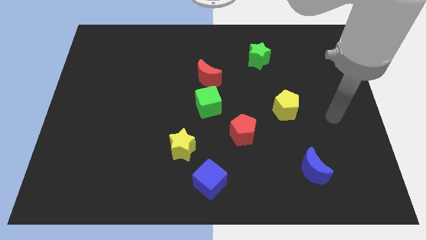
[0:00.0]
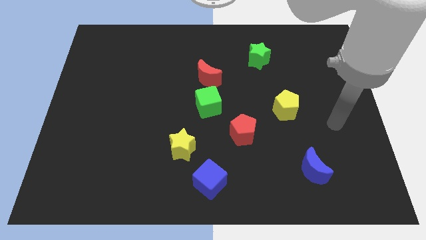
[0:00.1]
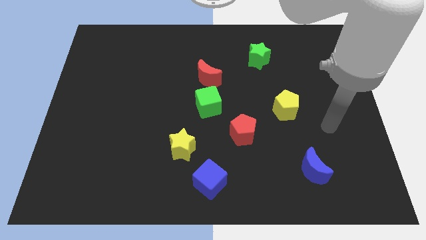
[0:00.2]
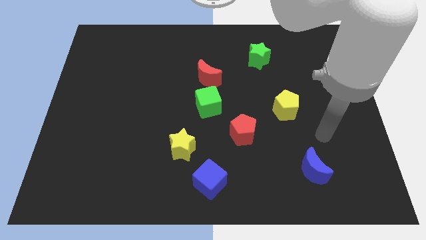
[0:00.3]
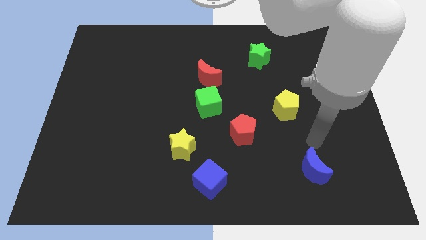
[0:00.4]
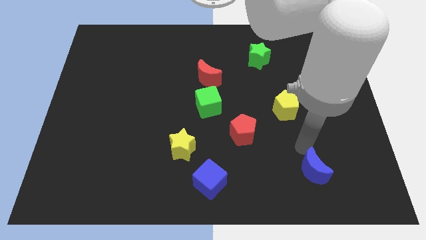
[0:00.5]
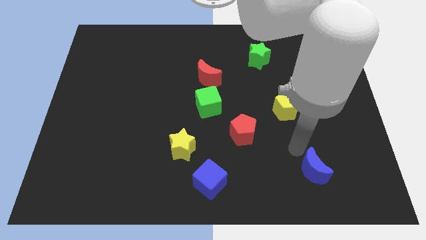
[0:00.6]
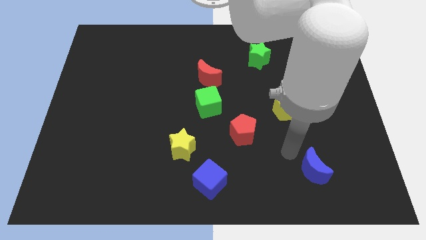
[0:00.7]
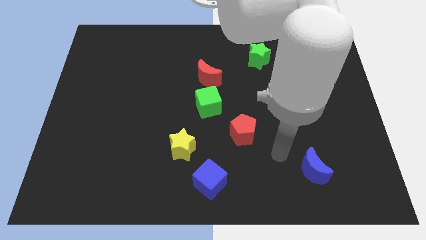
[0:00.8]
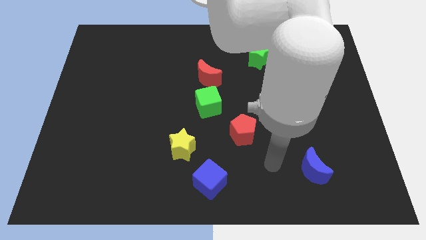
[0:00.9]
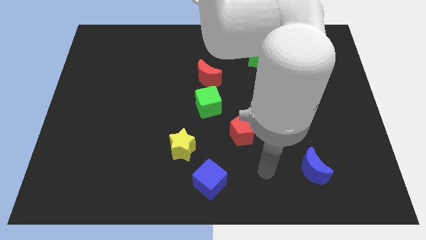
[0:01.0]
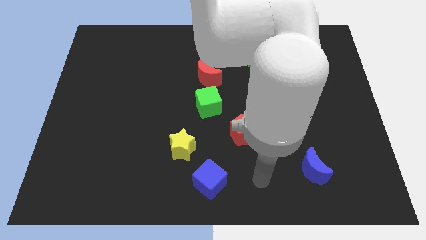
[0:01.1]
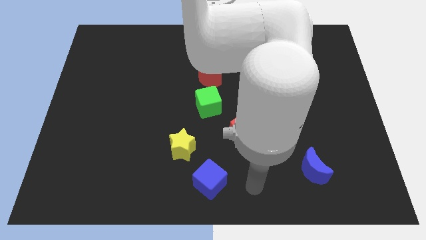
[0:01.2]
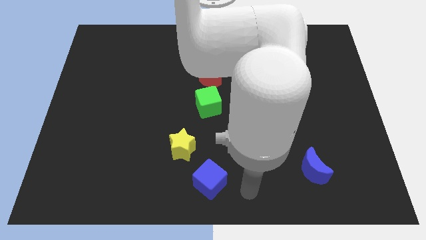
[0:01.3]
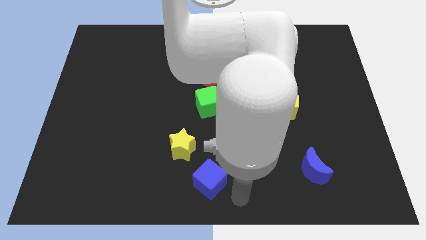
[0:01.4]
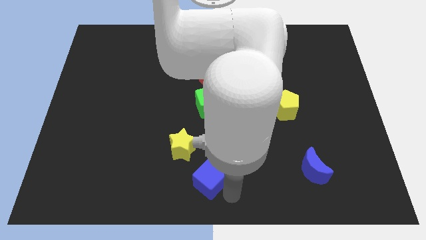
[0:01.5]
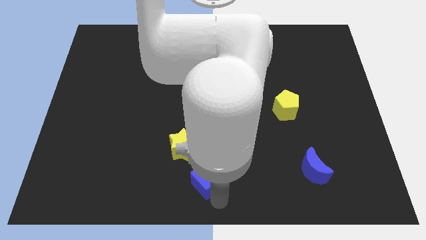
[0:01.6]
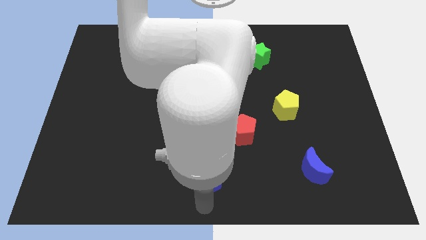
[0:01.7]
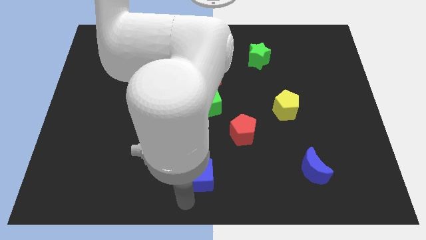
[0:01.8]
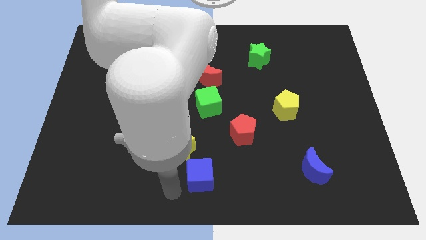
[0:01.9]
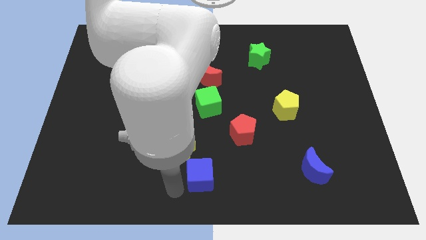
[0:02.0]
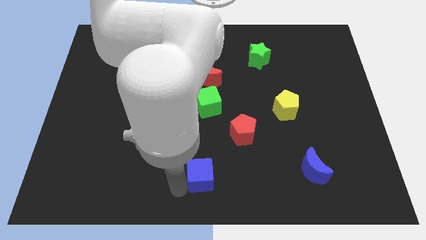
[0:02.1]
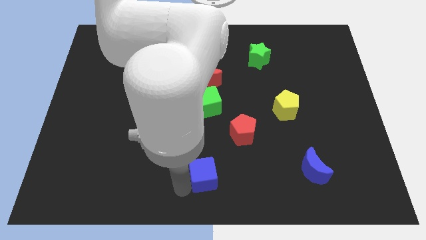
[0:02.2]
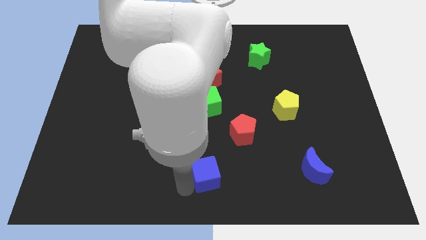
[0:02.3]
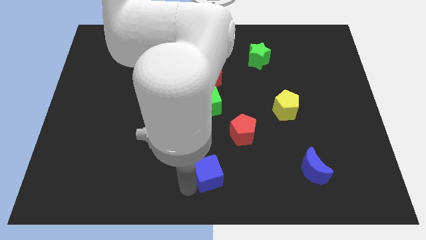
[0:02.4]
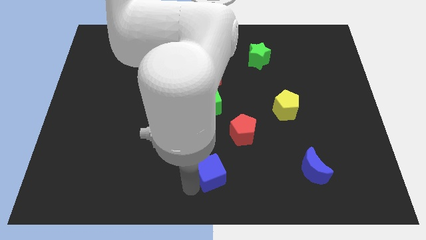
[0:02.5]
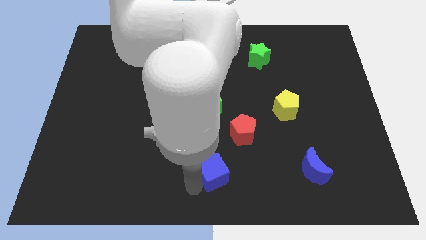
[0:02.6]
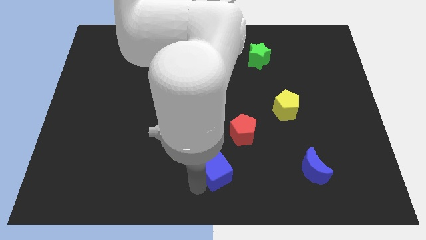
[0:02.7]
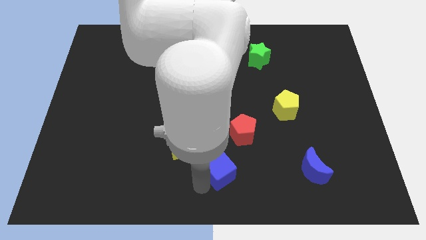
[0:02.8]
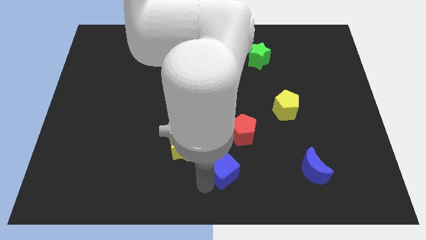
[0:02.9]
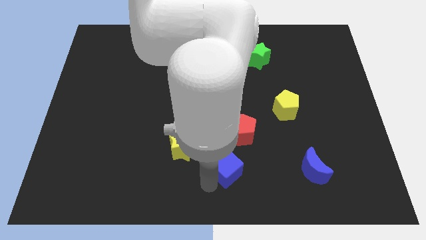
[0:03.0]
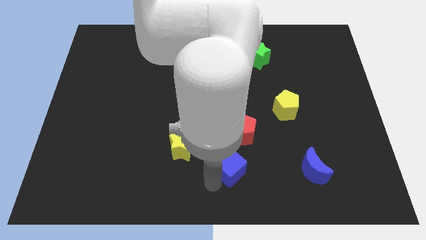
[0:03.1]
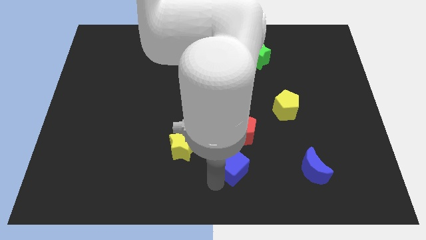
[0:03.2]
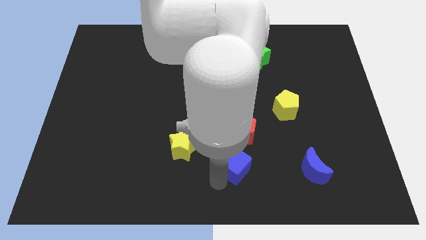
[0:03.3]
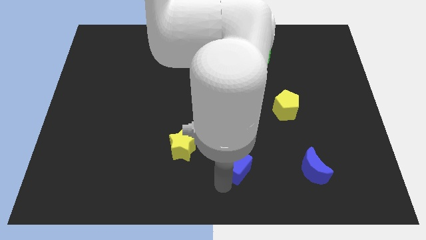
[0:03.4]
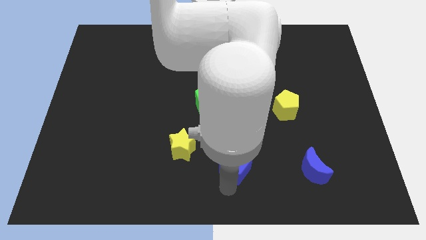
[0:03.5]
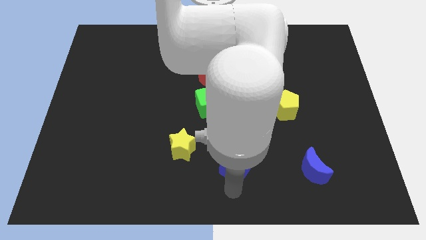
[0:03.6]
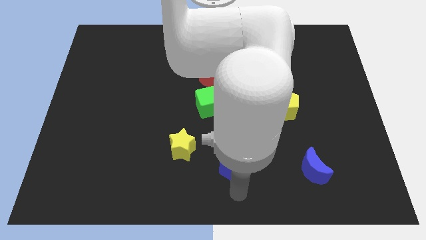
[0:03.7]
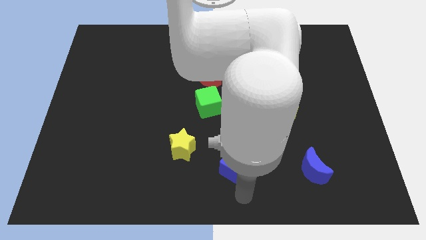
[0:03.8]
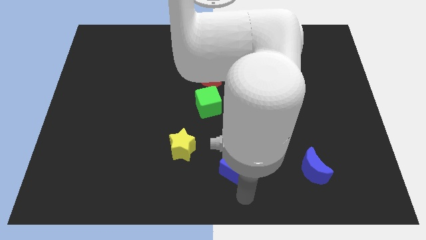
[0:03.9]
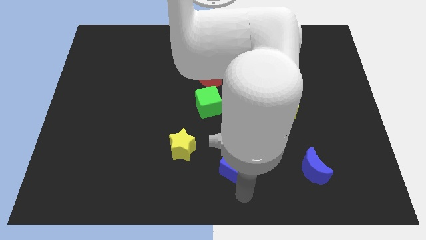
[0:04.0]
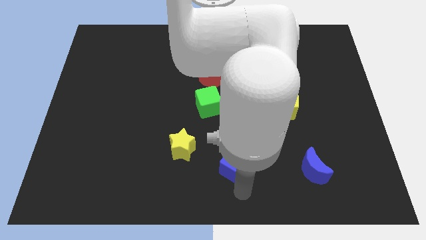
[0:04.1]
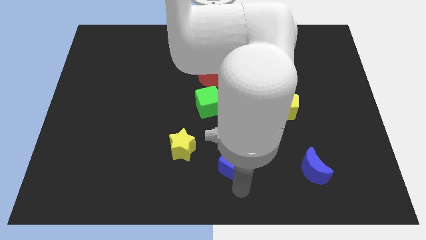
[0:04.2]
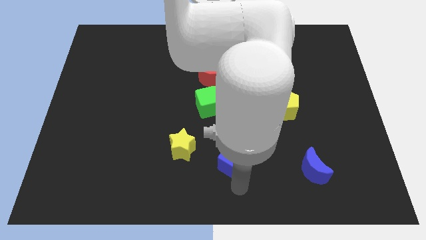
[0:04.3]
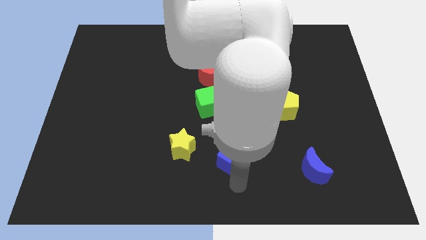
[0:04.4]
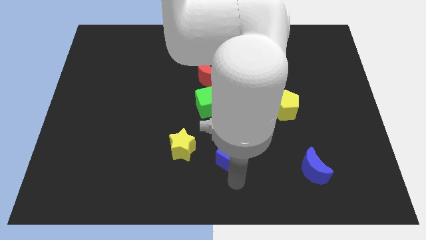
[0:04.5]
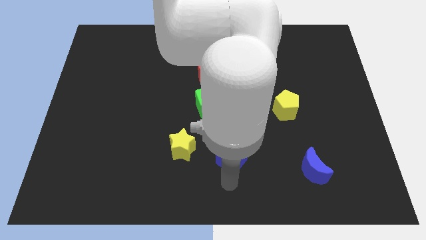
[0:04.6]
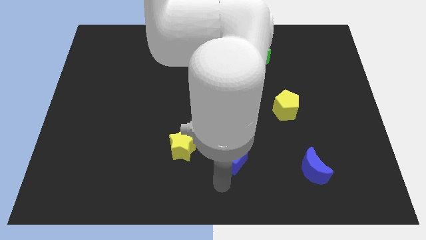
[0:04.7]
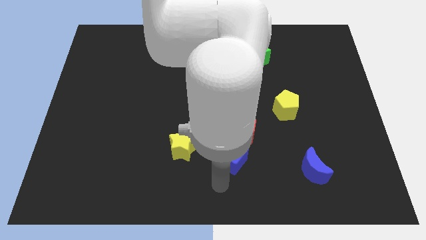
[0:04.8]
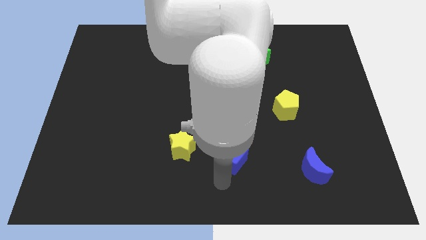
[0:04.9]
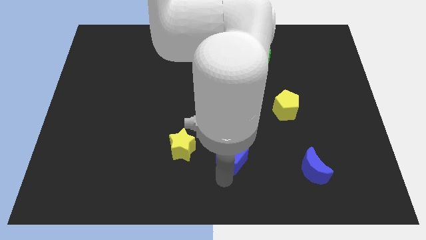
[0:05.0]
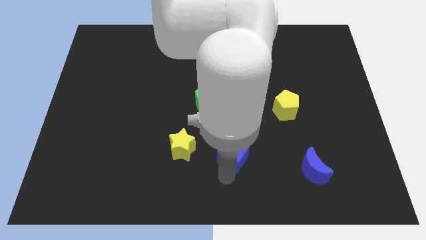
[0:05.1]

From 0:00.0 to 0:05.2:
push the blue cube close to the red pentagon

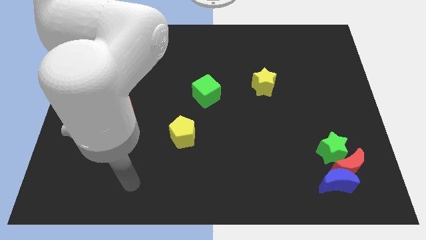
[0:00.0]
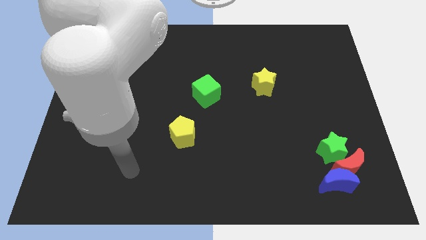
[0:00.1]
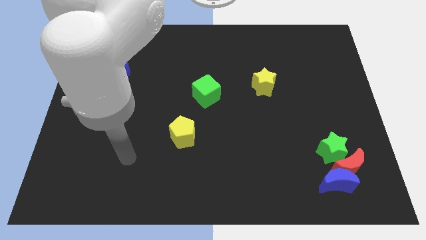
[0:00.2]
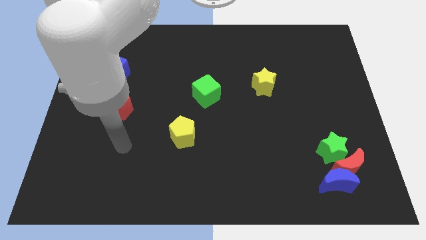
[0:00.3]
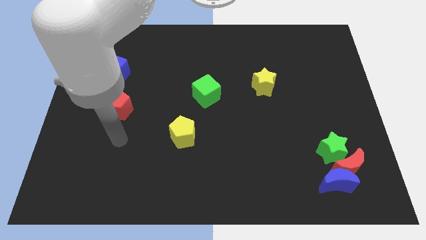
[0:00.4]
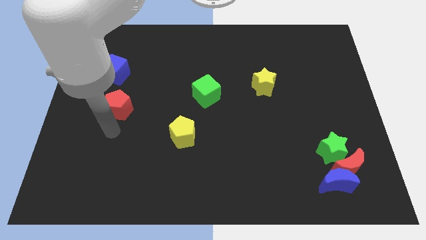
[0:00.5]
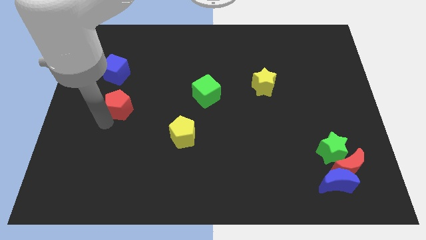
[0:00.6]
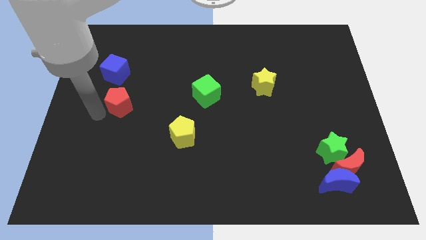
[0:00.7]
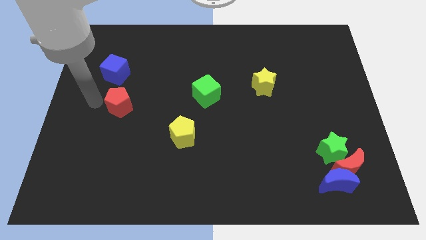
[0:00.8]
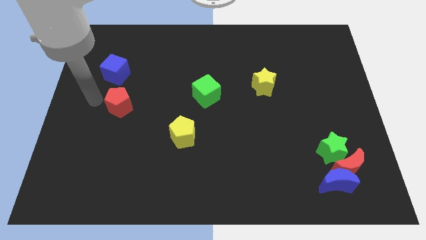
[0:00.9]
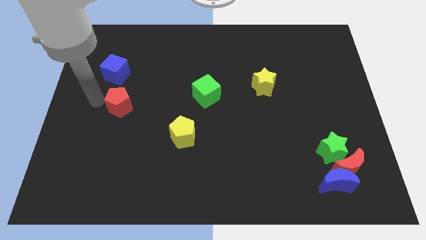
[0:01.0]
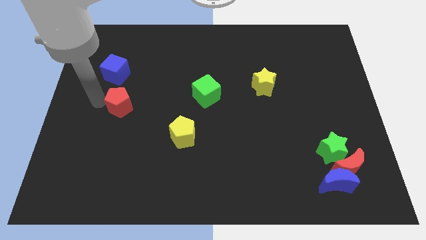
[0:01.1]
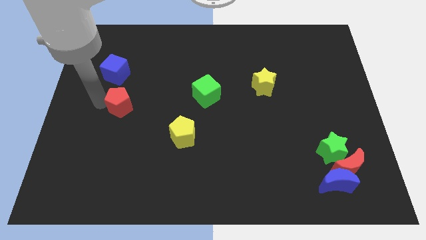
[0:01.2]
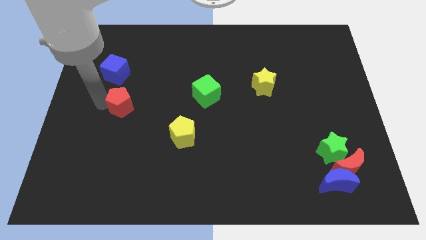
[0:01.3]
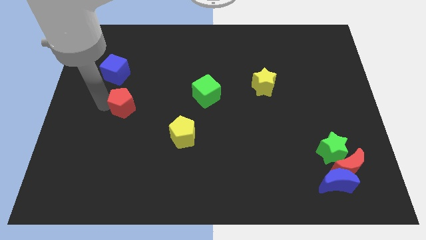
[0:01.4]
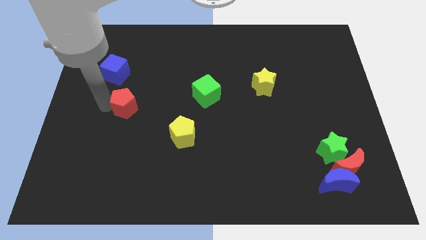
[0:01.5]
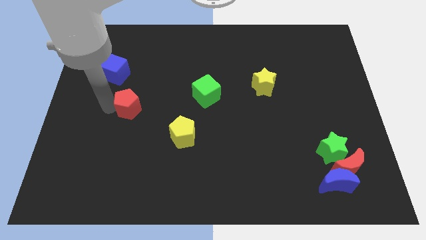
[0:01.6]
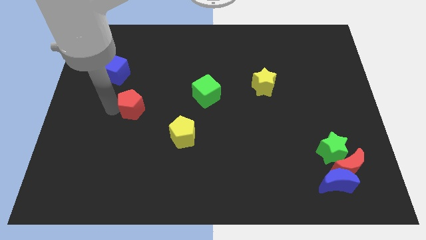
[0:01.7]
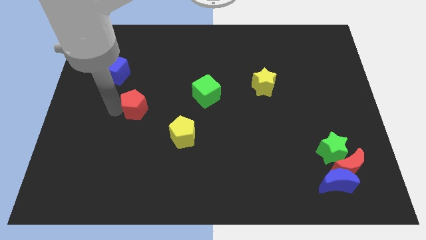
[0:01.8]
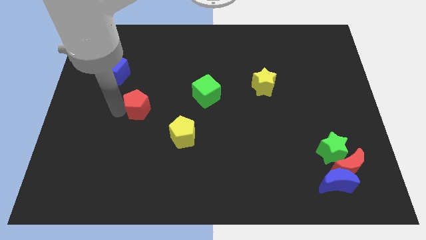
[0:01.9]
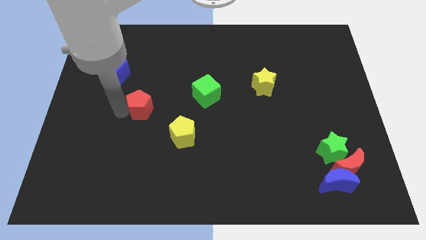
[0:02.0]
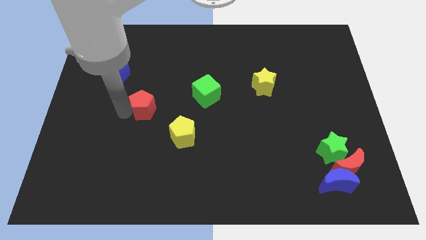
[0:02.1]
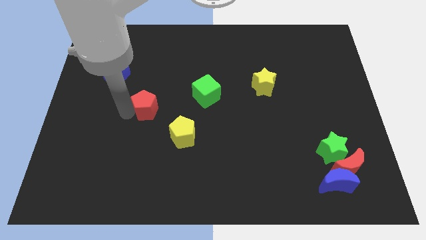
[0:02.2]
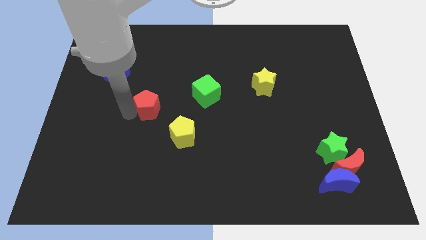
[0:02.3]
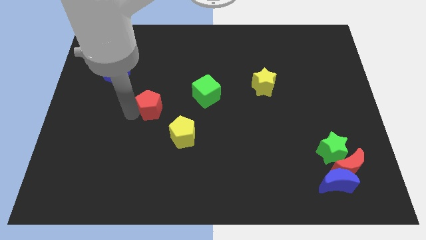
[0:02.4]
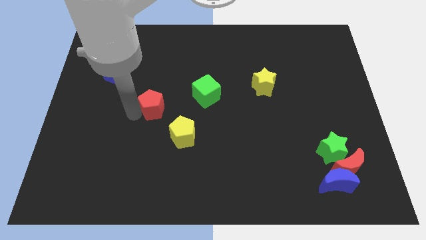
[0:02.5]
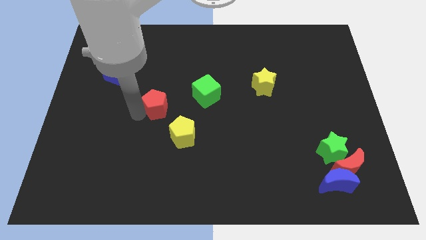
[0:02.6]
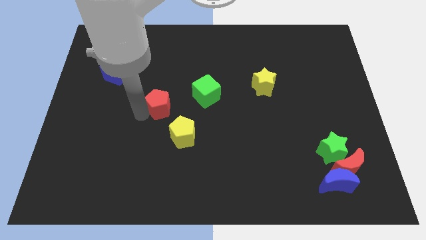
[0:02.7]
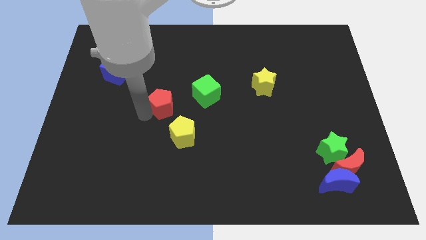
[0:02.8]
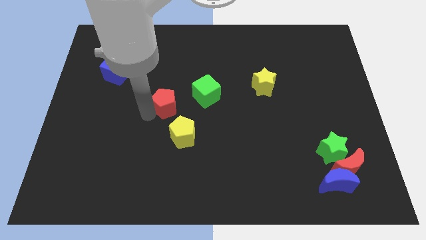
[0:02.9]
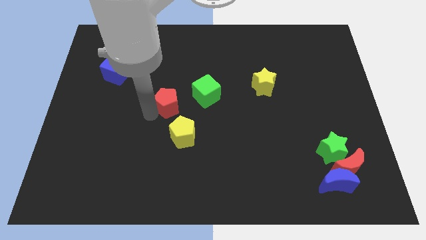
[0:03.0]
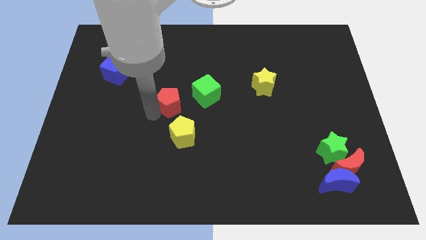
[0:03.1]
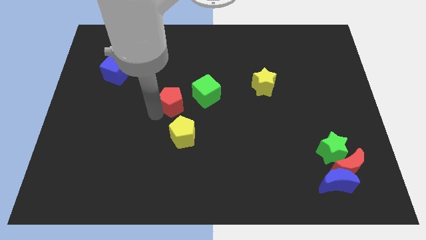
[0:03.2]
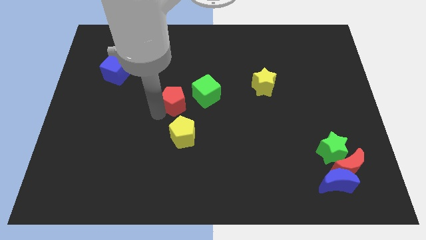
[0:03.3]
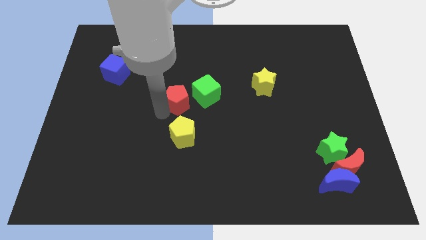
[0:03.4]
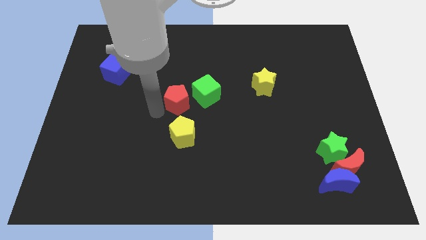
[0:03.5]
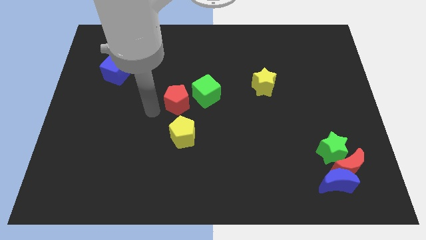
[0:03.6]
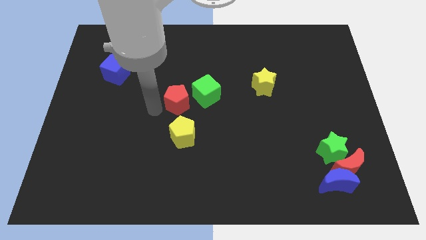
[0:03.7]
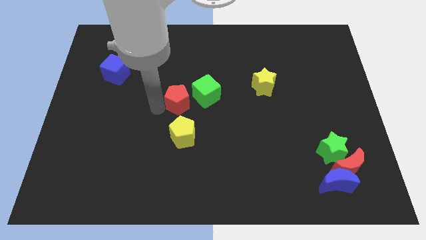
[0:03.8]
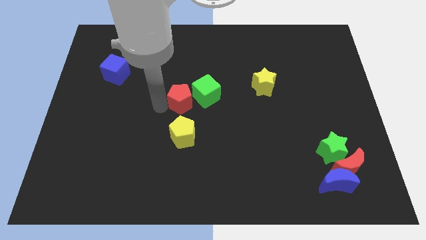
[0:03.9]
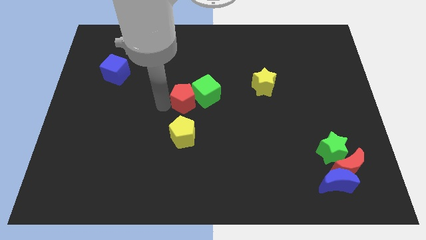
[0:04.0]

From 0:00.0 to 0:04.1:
put the red pentagon close to the green cube
